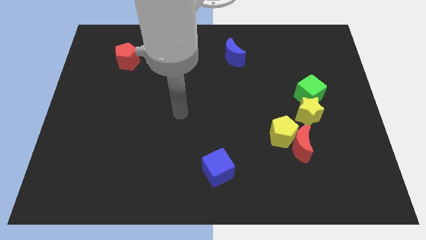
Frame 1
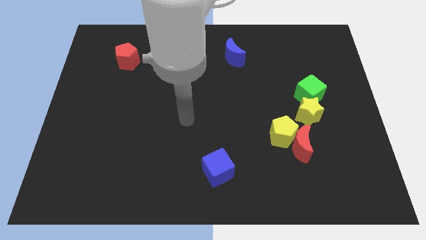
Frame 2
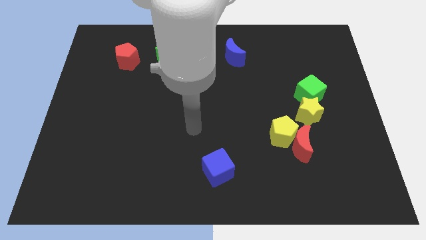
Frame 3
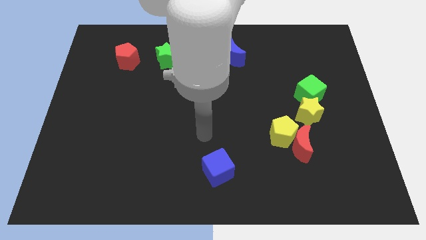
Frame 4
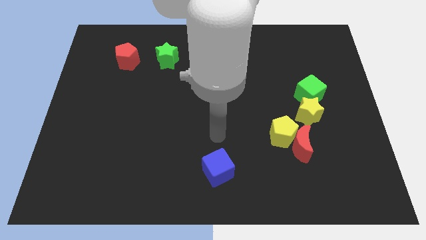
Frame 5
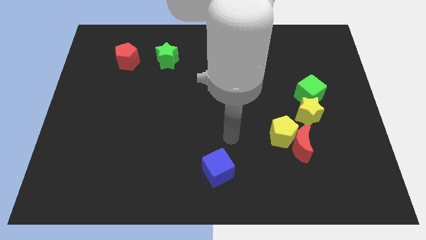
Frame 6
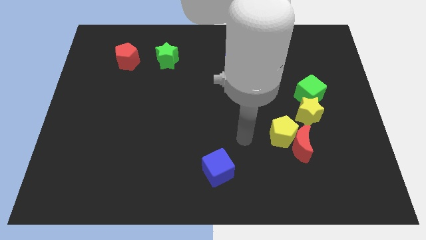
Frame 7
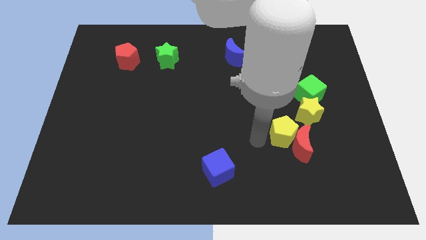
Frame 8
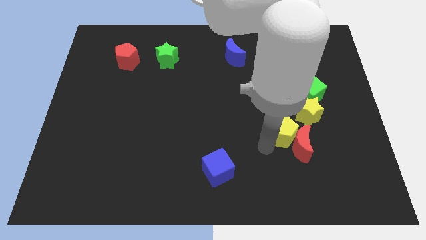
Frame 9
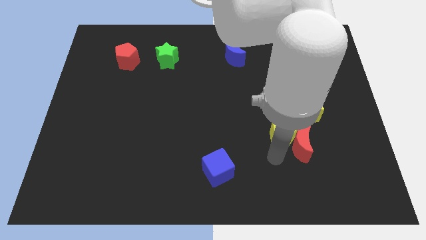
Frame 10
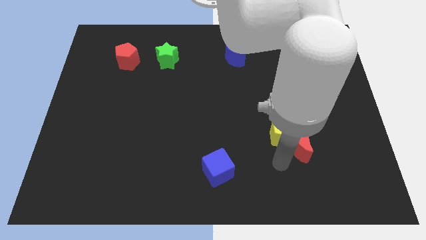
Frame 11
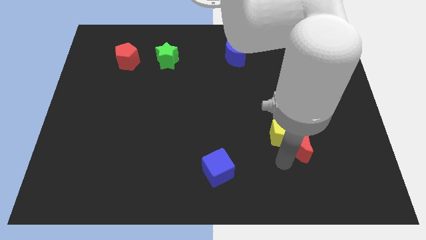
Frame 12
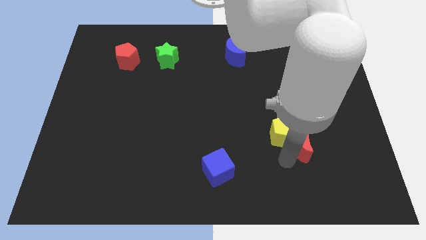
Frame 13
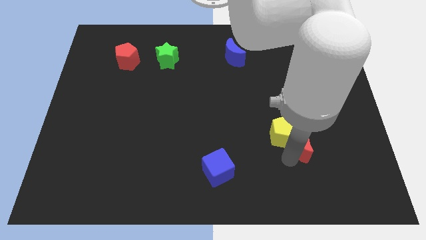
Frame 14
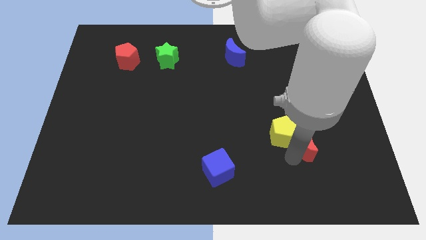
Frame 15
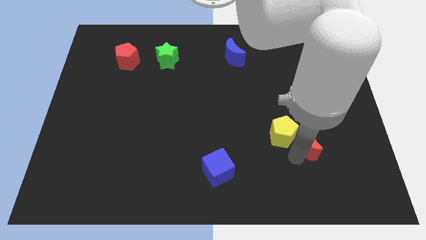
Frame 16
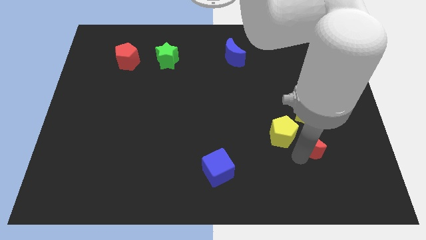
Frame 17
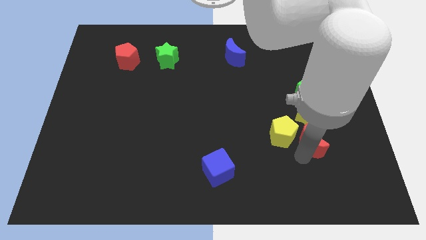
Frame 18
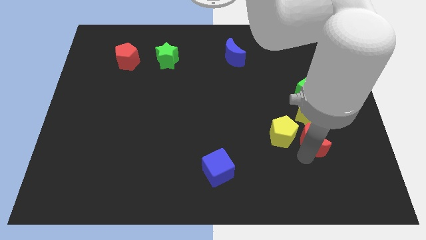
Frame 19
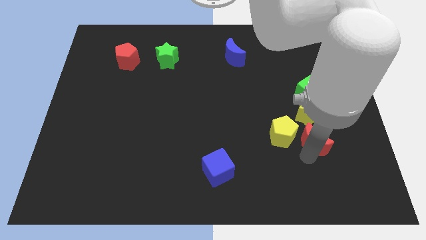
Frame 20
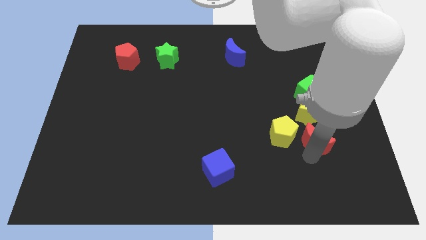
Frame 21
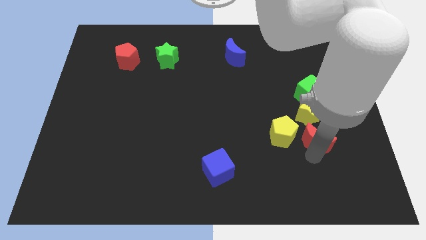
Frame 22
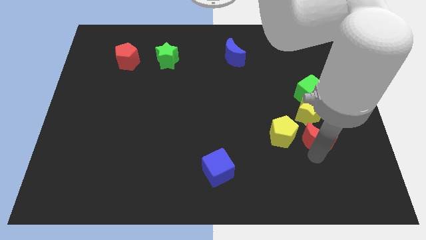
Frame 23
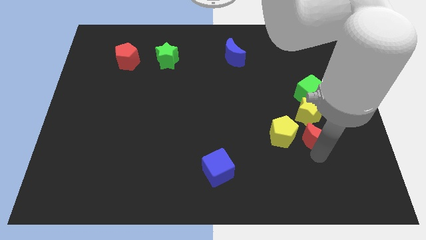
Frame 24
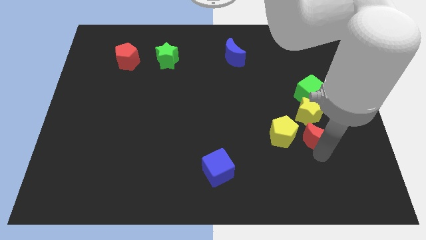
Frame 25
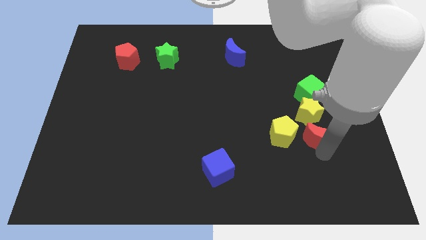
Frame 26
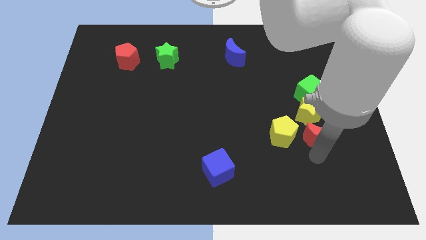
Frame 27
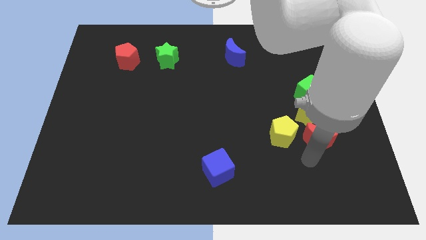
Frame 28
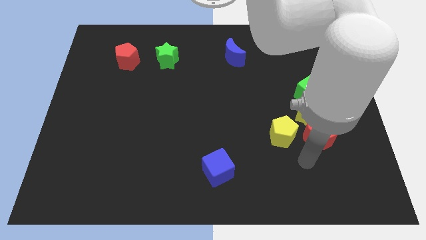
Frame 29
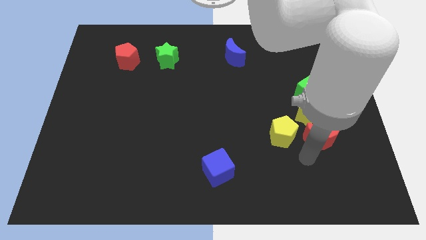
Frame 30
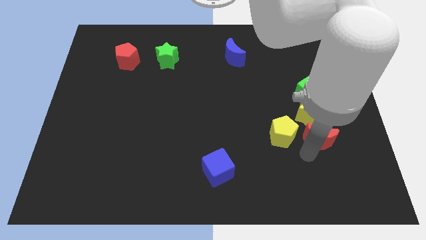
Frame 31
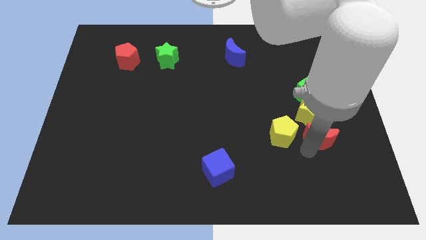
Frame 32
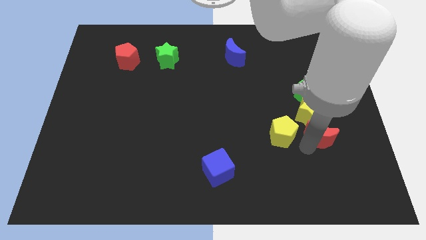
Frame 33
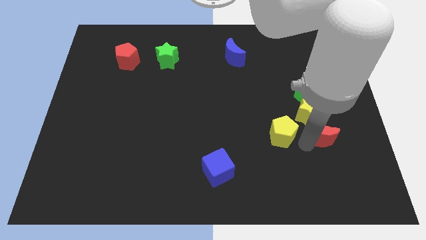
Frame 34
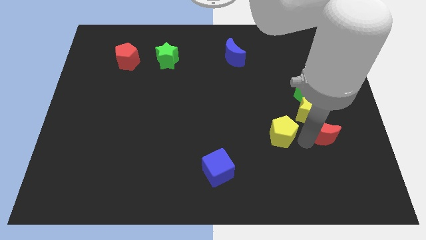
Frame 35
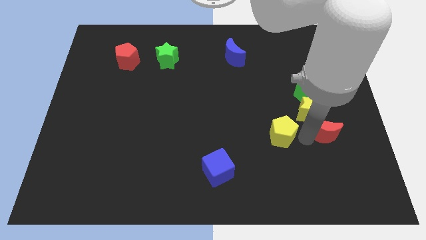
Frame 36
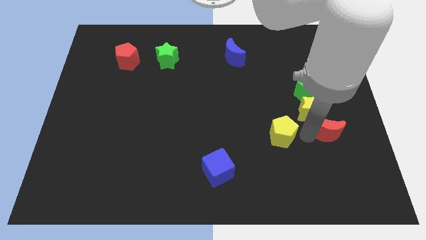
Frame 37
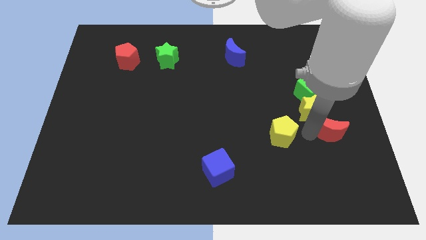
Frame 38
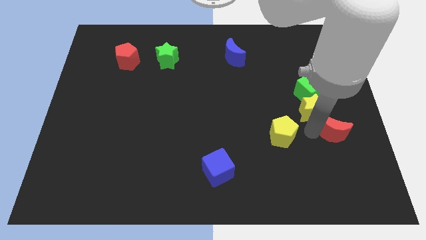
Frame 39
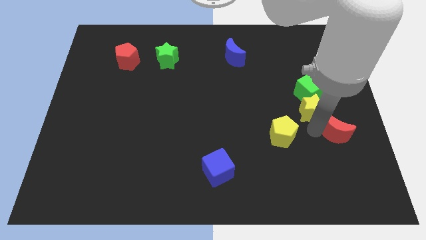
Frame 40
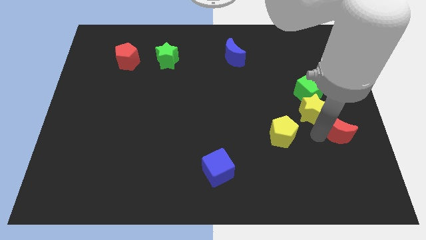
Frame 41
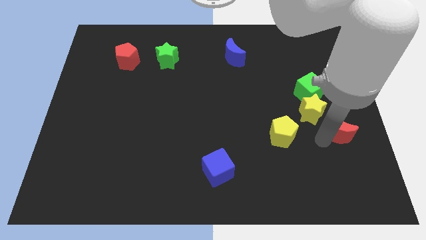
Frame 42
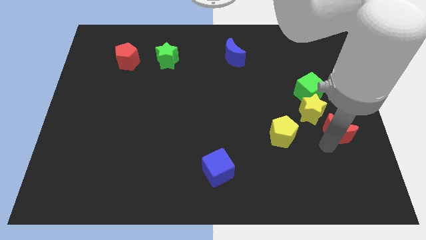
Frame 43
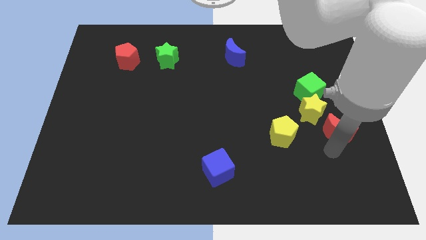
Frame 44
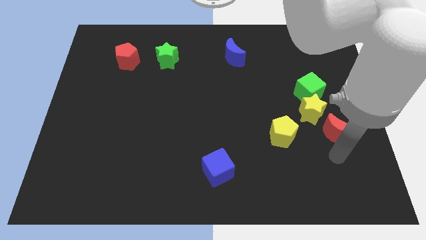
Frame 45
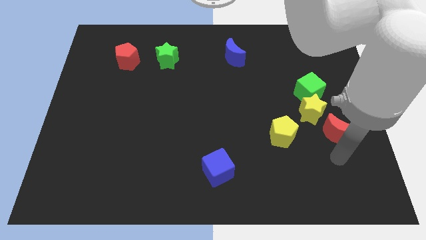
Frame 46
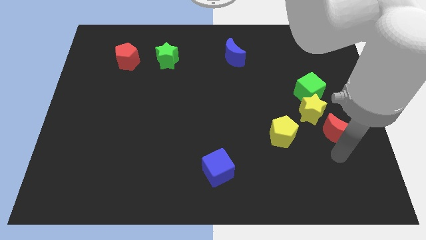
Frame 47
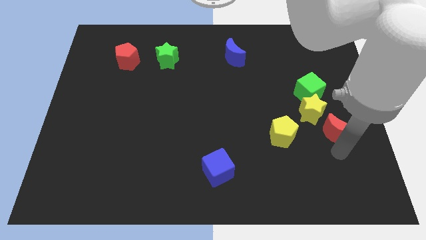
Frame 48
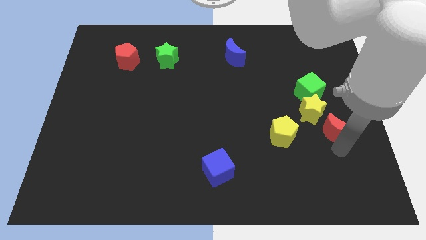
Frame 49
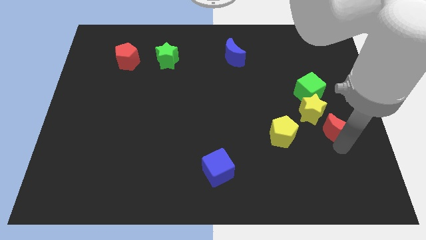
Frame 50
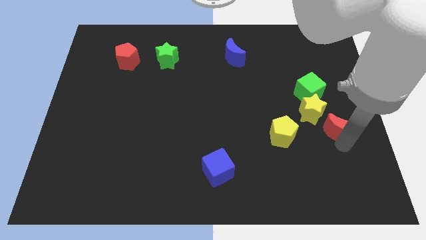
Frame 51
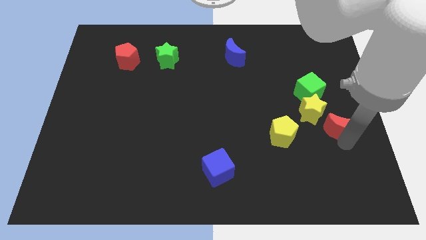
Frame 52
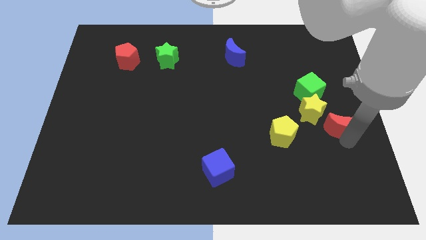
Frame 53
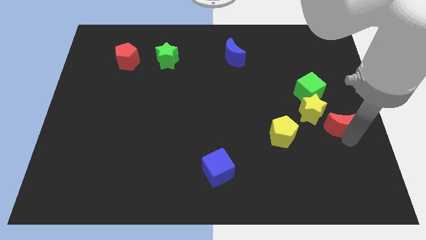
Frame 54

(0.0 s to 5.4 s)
slide the red moon to the bottom right side of the green cube

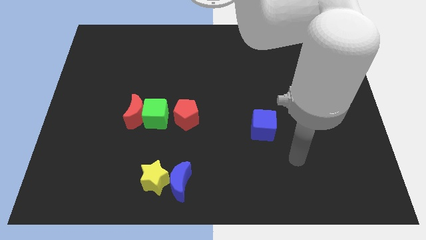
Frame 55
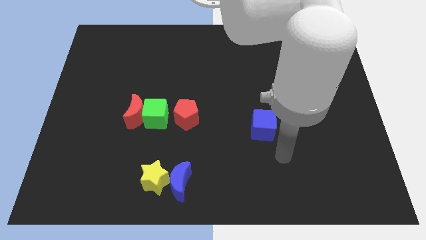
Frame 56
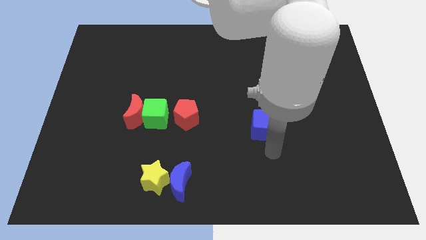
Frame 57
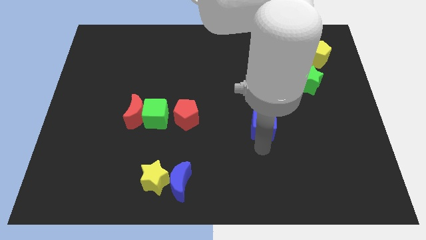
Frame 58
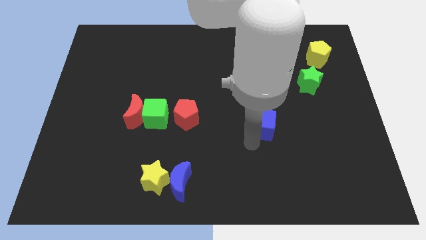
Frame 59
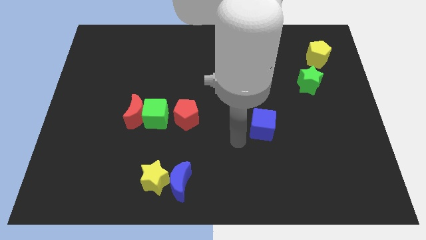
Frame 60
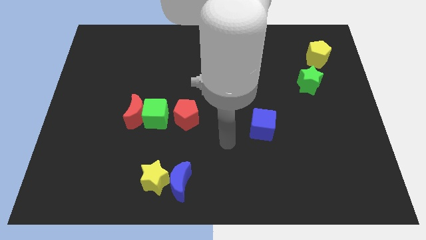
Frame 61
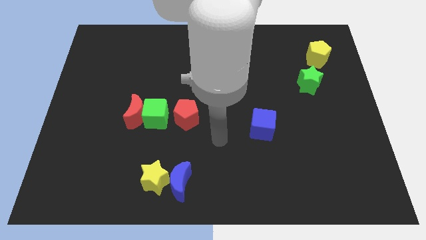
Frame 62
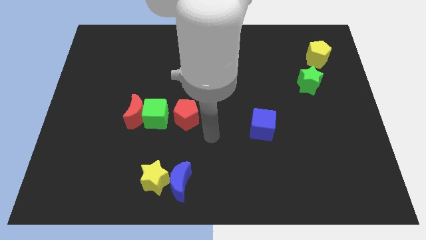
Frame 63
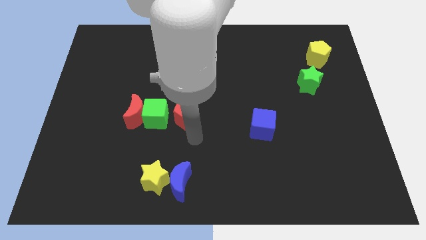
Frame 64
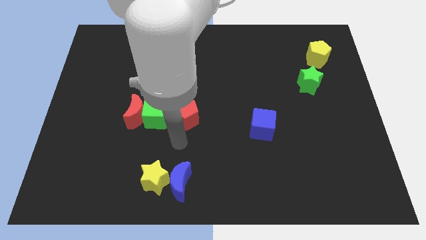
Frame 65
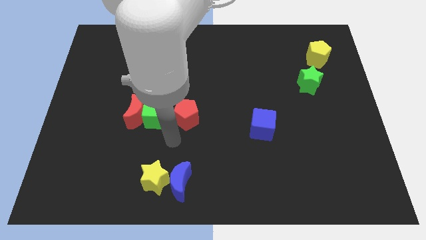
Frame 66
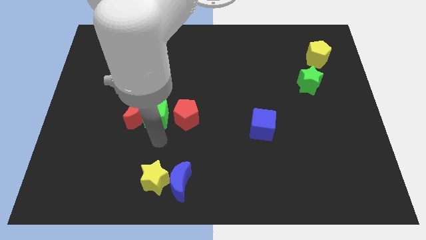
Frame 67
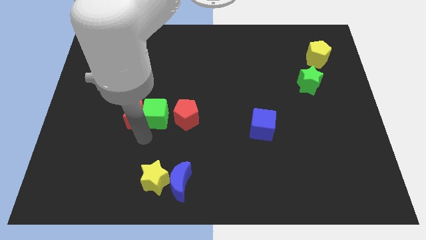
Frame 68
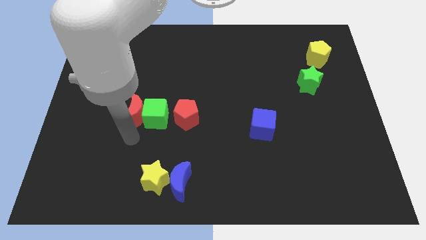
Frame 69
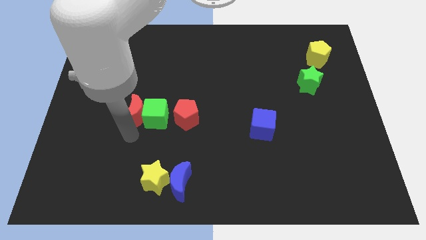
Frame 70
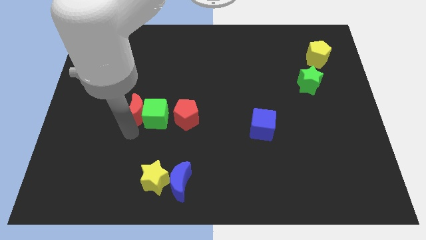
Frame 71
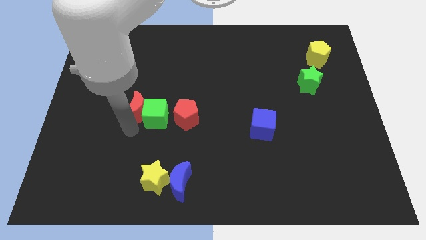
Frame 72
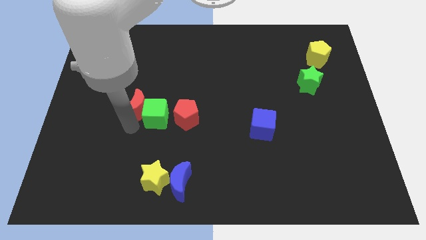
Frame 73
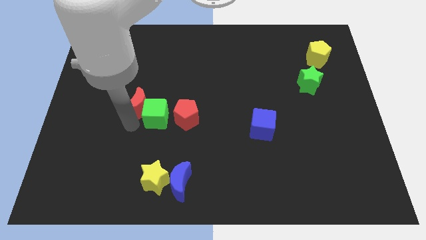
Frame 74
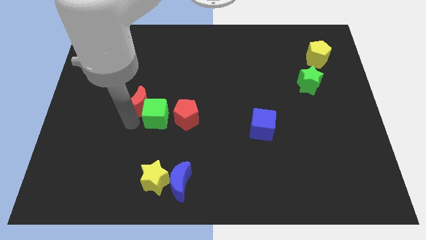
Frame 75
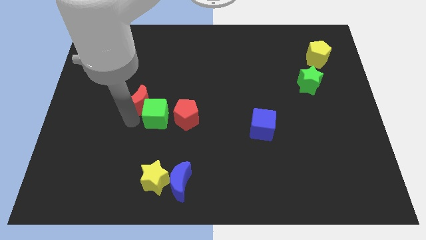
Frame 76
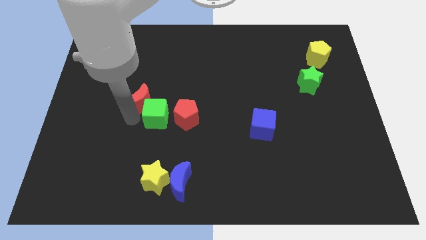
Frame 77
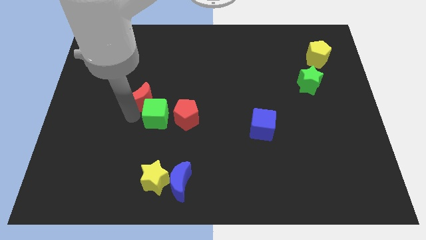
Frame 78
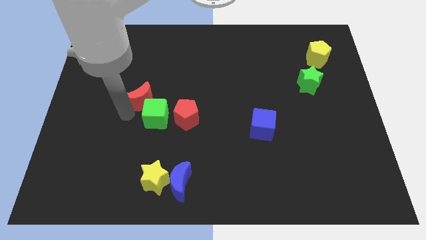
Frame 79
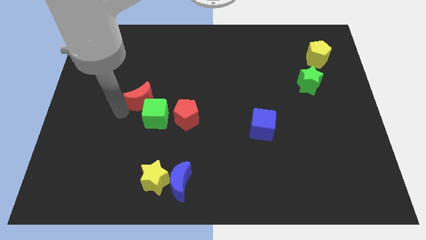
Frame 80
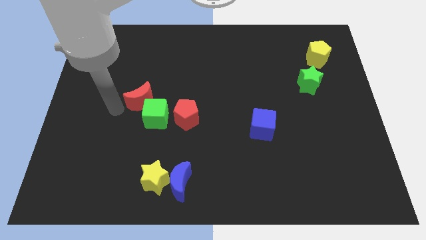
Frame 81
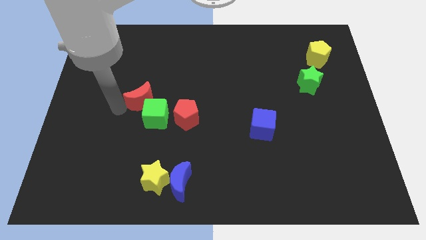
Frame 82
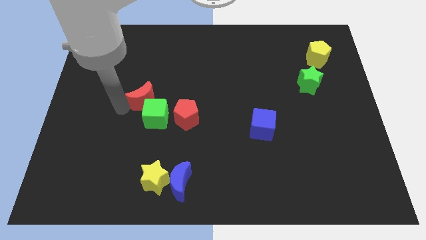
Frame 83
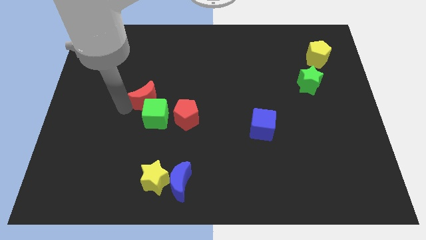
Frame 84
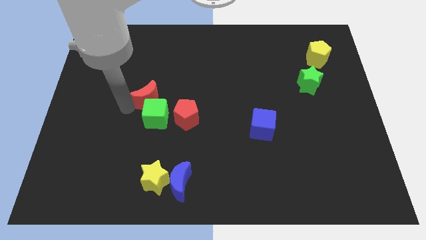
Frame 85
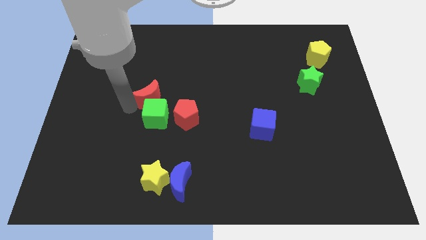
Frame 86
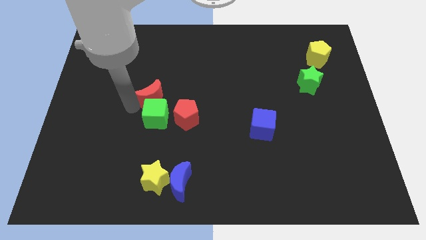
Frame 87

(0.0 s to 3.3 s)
push the red moon diagonally up and to the right of the green cube
